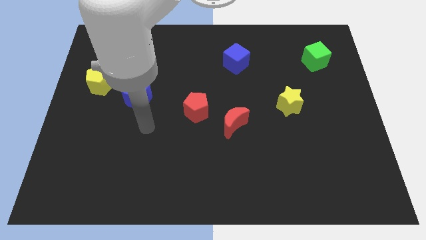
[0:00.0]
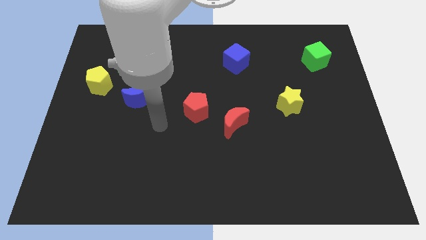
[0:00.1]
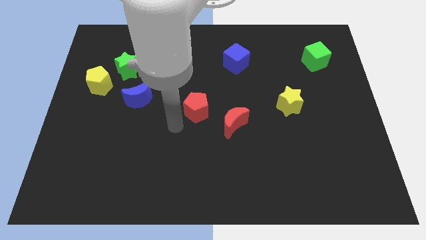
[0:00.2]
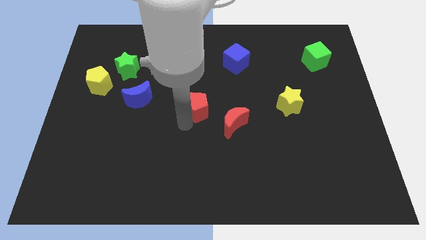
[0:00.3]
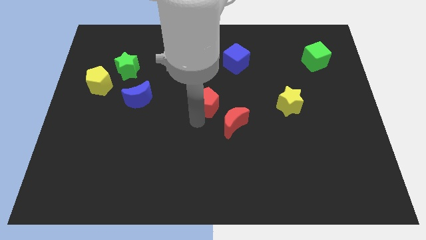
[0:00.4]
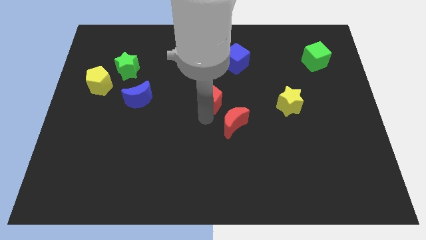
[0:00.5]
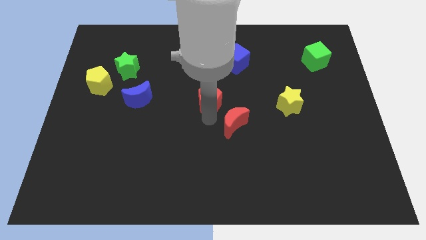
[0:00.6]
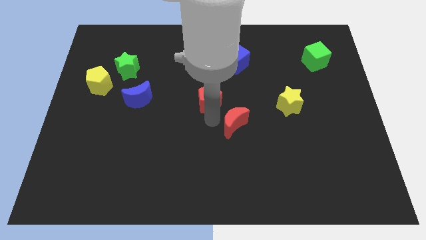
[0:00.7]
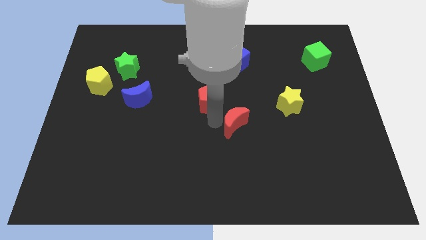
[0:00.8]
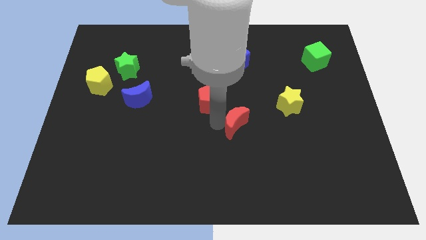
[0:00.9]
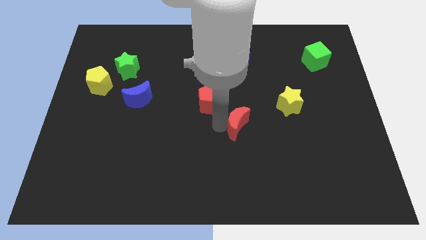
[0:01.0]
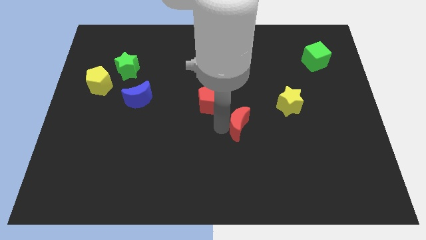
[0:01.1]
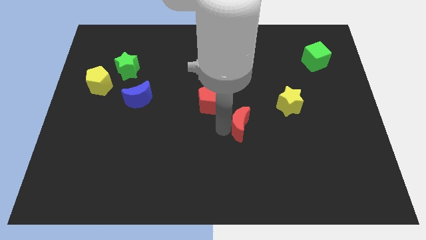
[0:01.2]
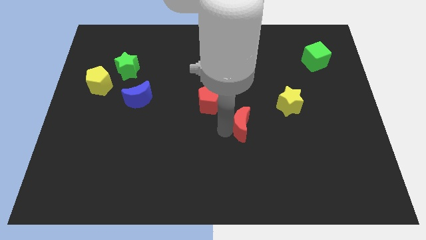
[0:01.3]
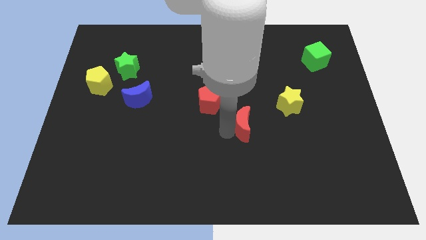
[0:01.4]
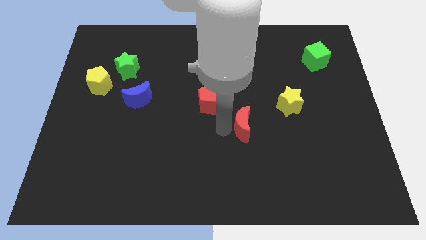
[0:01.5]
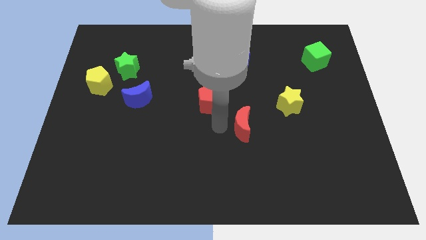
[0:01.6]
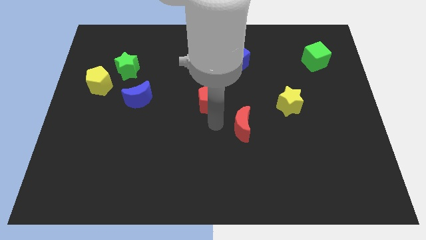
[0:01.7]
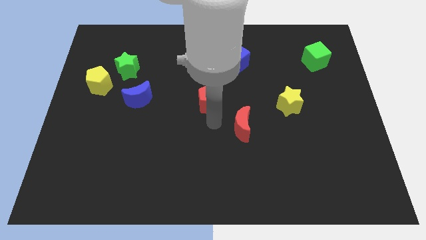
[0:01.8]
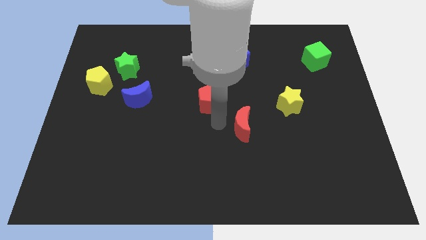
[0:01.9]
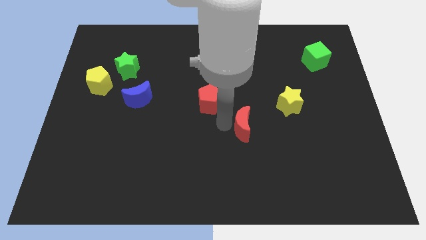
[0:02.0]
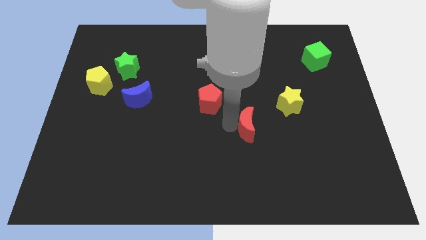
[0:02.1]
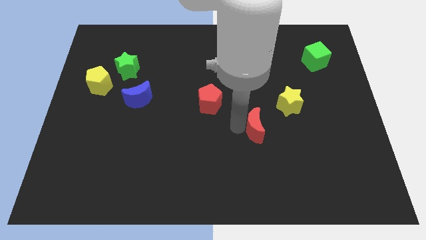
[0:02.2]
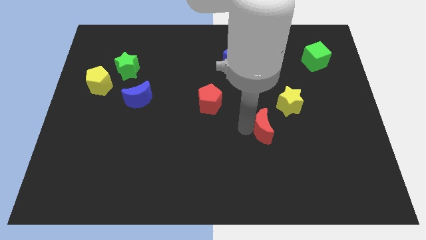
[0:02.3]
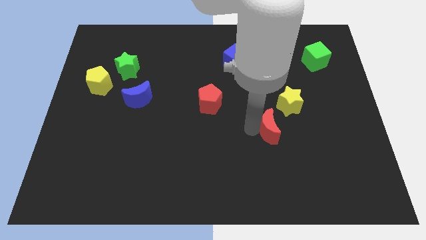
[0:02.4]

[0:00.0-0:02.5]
slightly move the red moon right

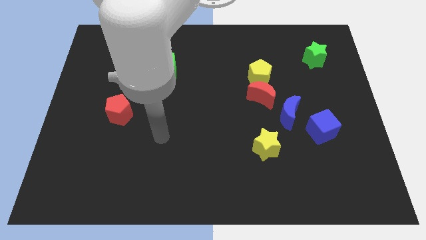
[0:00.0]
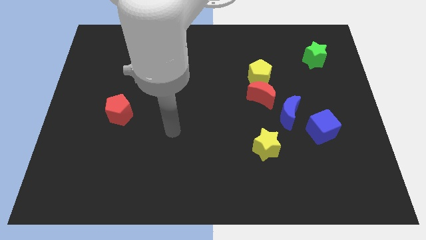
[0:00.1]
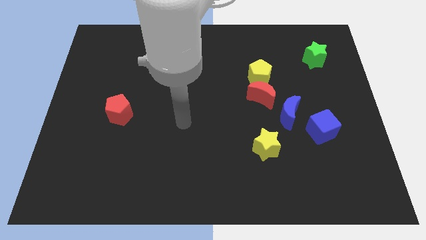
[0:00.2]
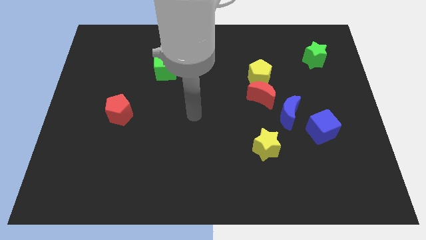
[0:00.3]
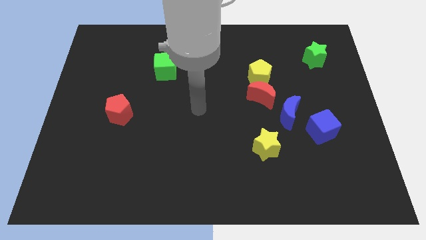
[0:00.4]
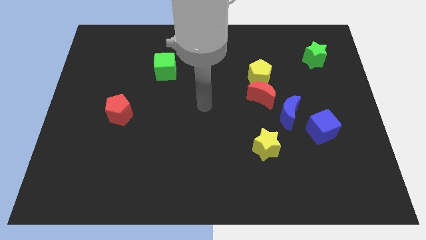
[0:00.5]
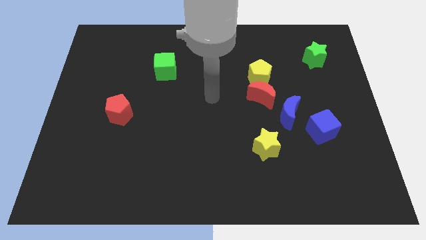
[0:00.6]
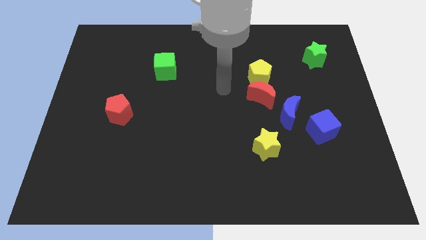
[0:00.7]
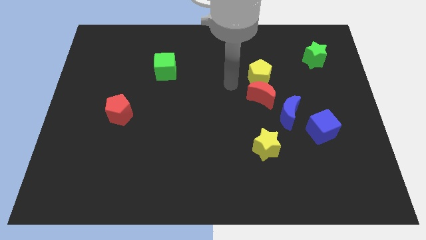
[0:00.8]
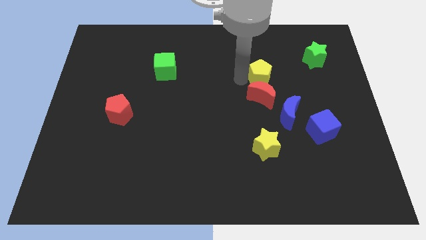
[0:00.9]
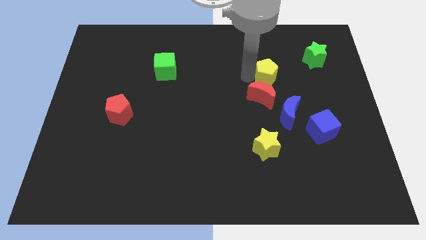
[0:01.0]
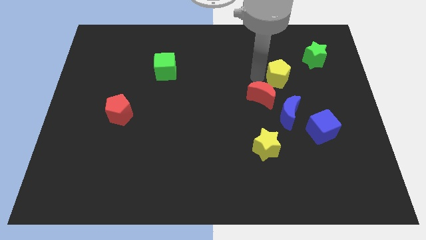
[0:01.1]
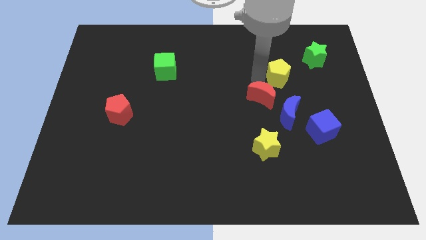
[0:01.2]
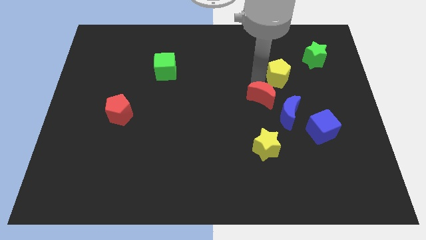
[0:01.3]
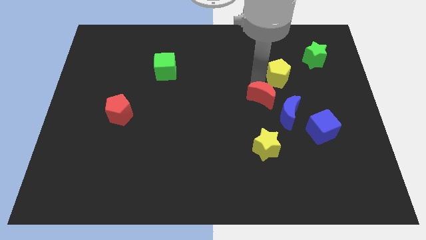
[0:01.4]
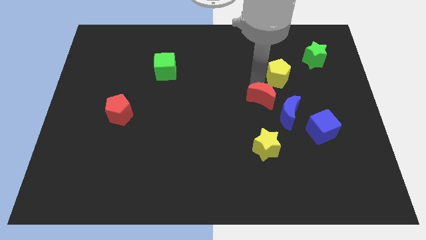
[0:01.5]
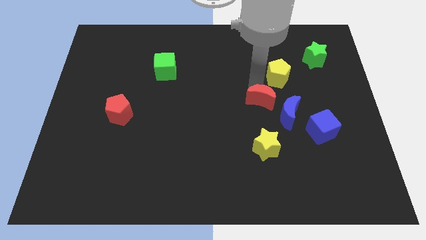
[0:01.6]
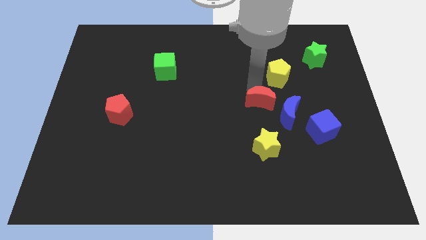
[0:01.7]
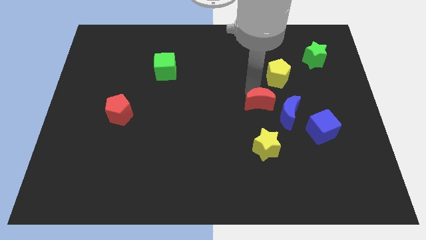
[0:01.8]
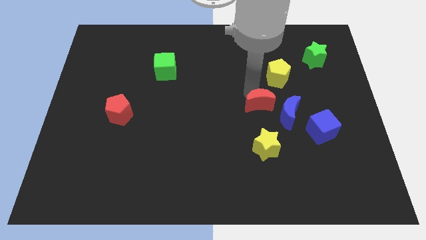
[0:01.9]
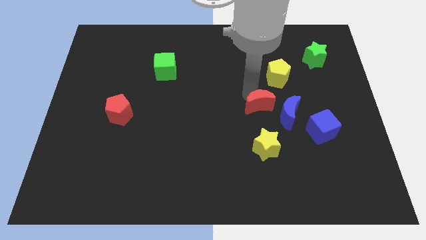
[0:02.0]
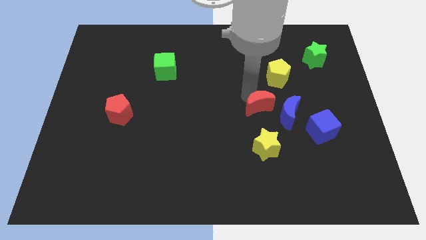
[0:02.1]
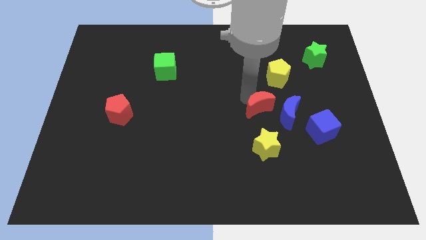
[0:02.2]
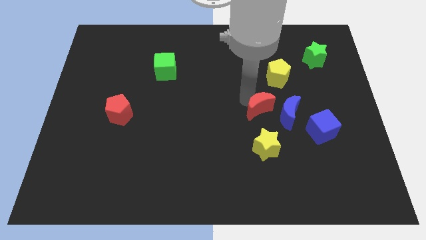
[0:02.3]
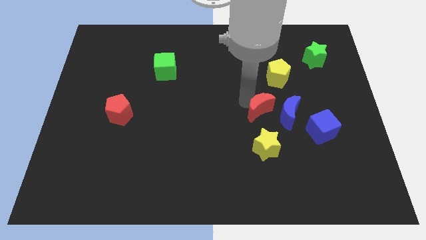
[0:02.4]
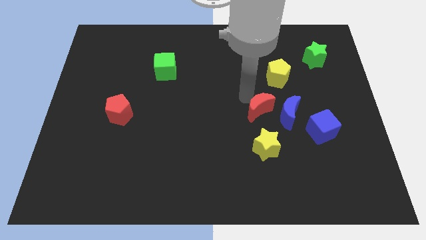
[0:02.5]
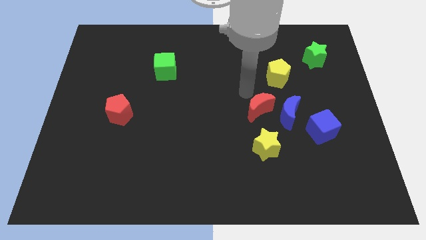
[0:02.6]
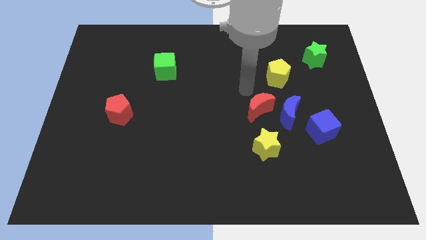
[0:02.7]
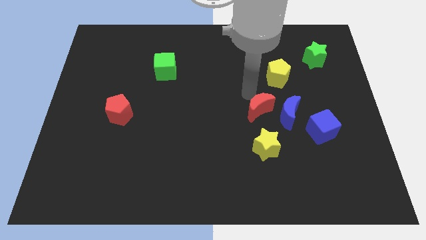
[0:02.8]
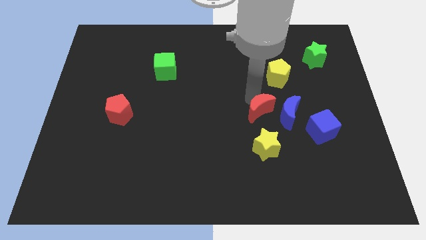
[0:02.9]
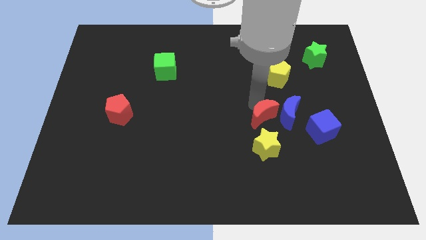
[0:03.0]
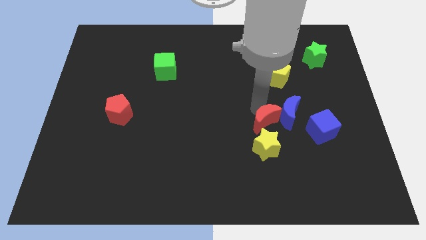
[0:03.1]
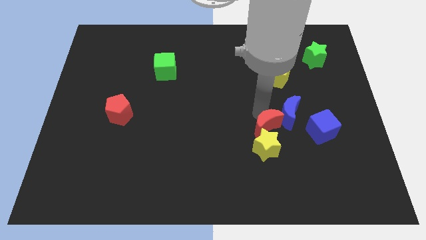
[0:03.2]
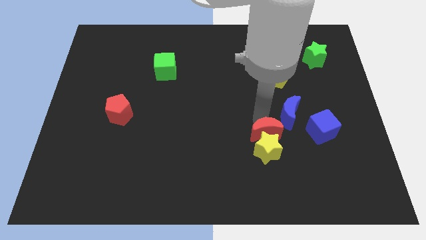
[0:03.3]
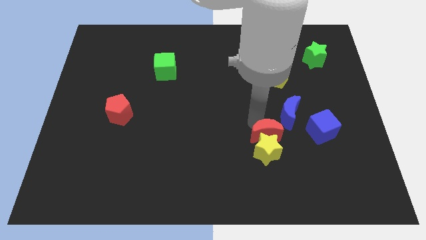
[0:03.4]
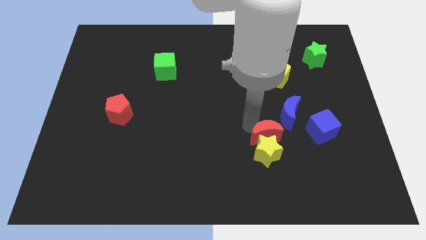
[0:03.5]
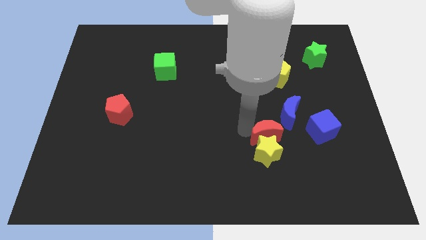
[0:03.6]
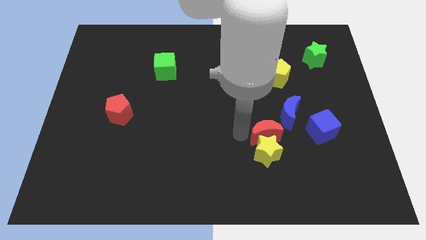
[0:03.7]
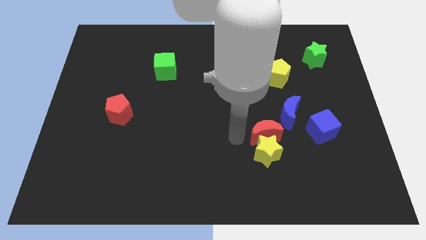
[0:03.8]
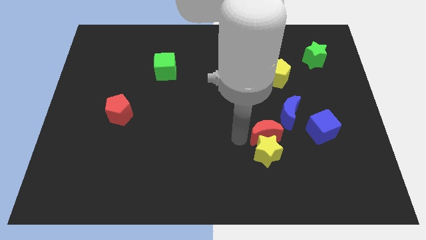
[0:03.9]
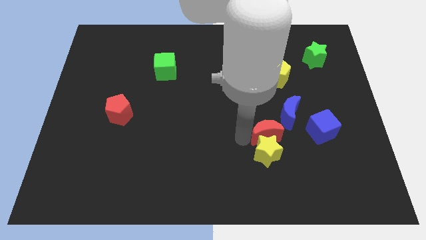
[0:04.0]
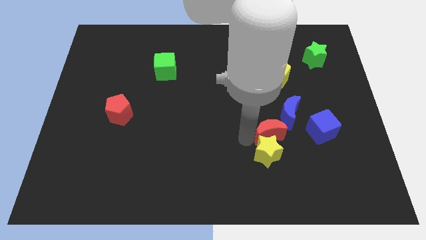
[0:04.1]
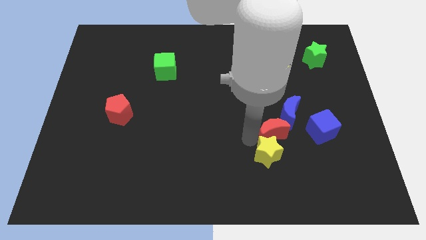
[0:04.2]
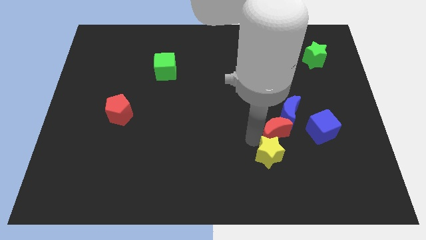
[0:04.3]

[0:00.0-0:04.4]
slightly slide the red moon down and to the right diagonally

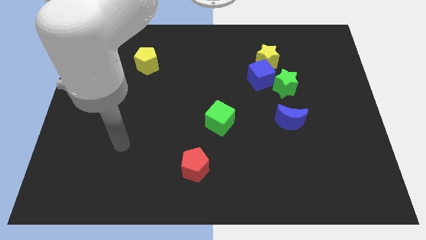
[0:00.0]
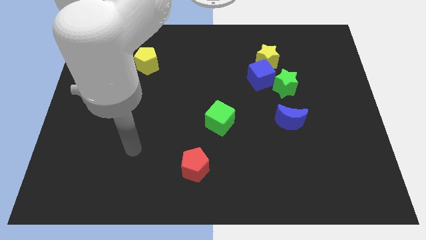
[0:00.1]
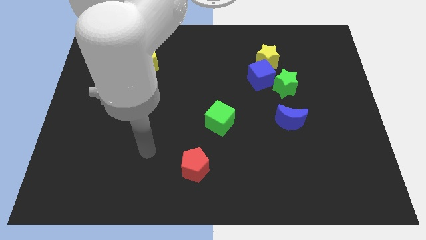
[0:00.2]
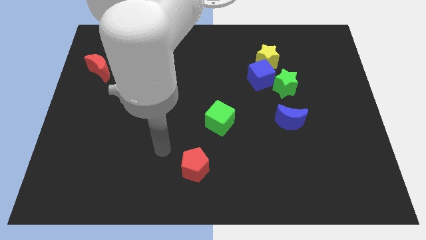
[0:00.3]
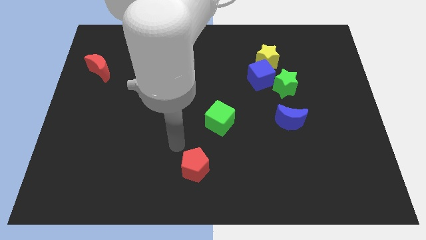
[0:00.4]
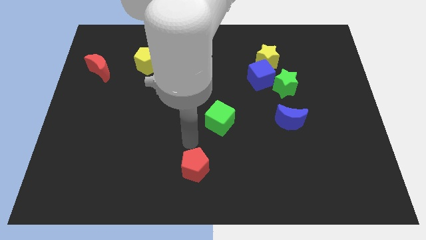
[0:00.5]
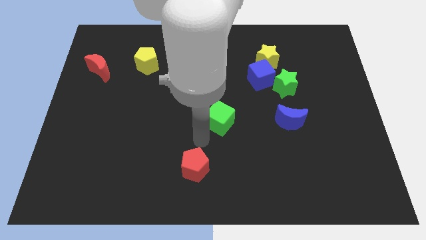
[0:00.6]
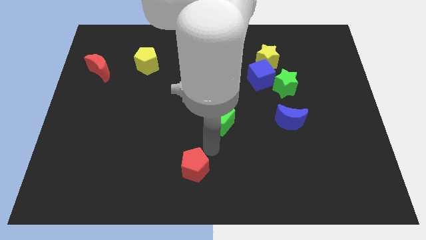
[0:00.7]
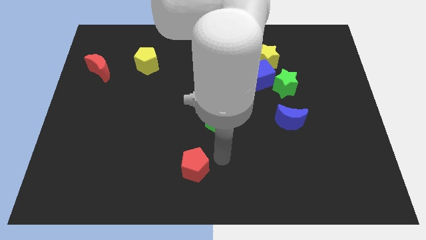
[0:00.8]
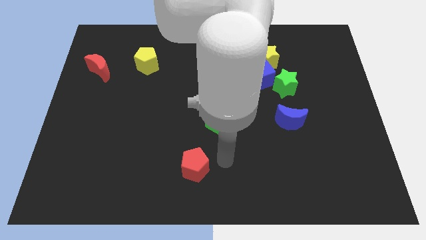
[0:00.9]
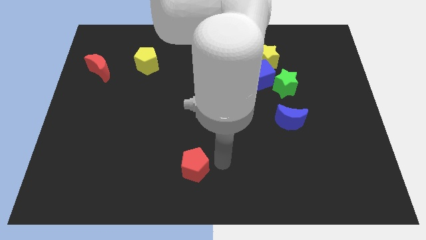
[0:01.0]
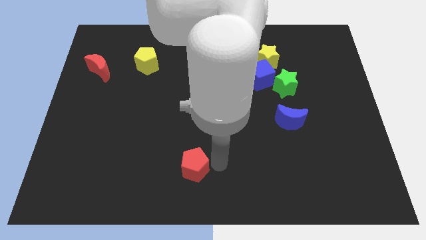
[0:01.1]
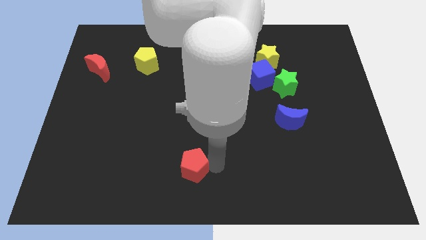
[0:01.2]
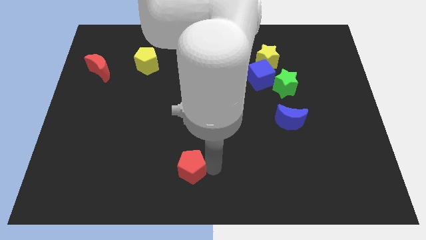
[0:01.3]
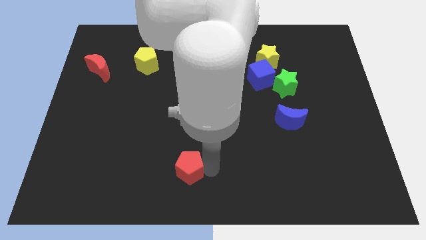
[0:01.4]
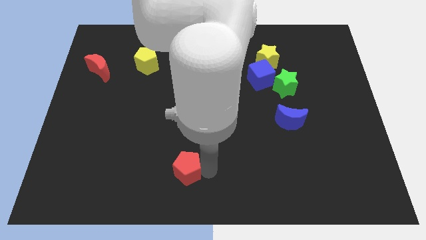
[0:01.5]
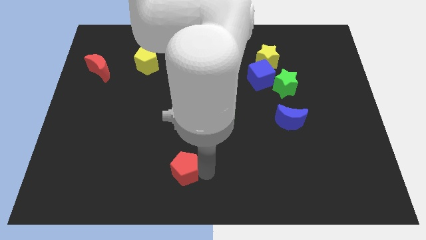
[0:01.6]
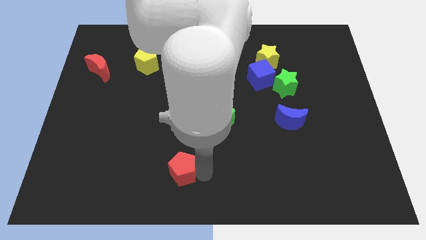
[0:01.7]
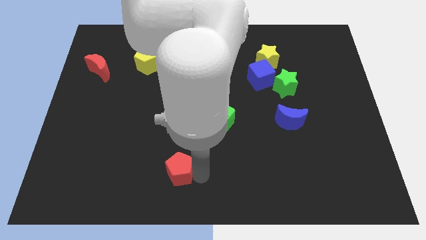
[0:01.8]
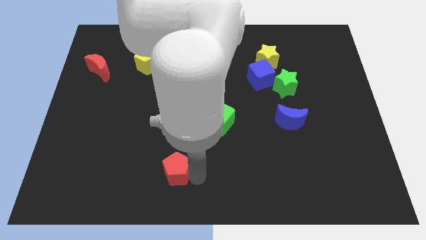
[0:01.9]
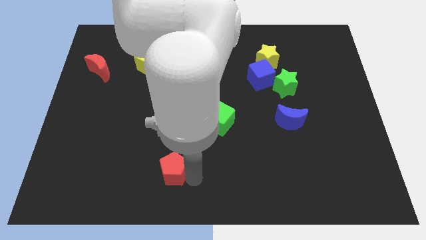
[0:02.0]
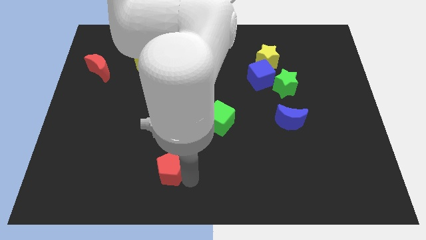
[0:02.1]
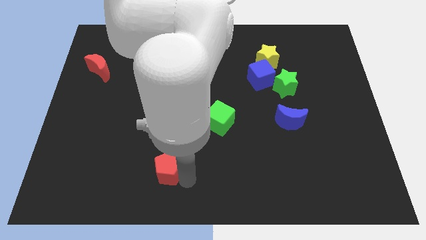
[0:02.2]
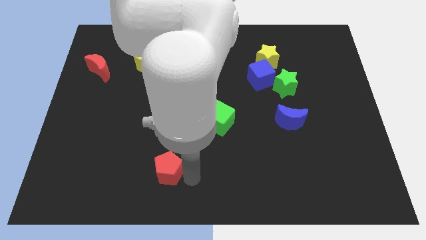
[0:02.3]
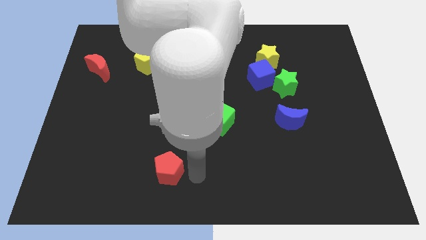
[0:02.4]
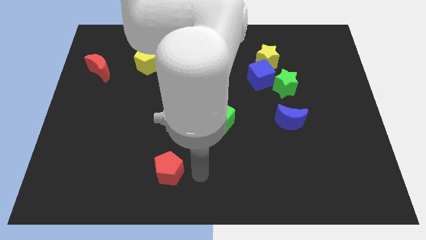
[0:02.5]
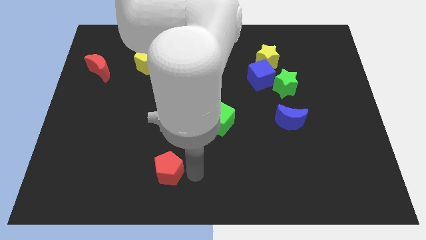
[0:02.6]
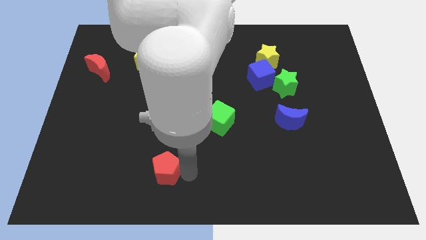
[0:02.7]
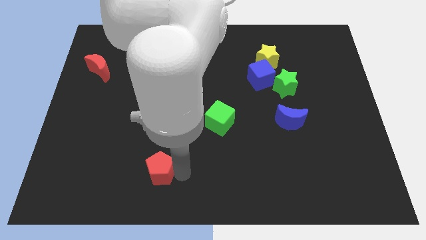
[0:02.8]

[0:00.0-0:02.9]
slightly slide the red pentagon to the left
